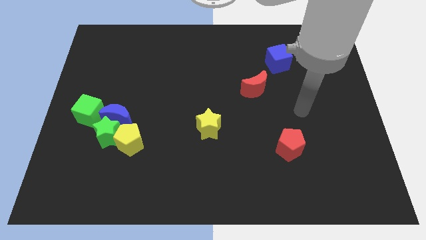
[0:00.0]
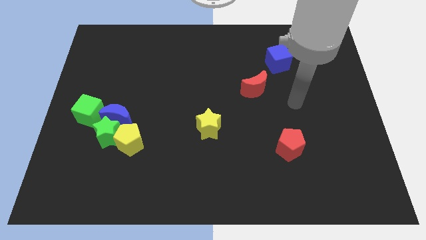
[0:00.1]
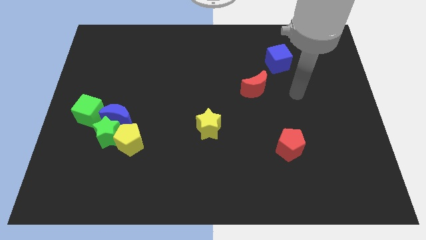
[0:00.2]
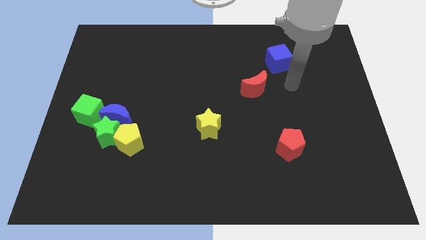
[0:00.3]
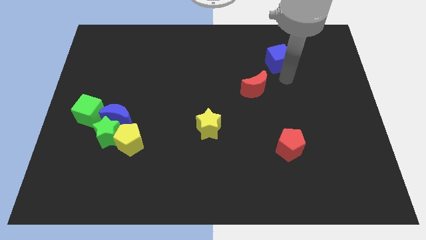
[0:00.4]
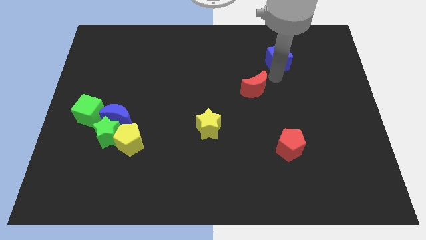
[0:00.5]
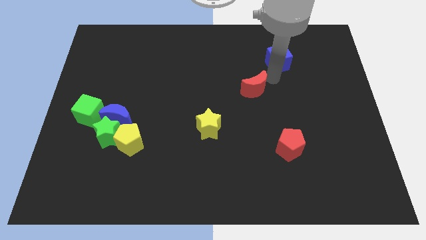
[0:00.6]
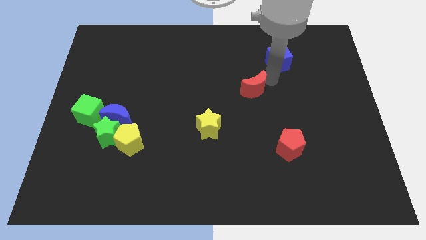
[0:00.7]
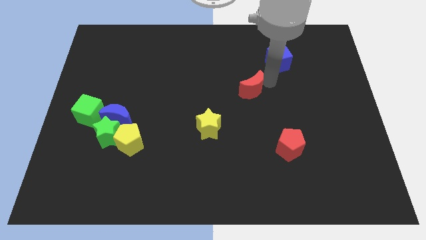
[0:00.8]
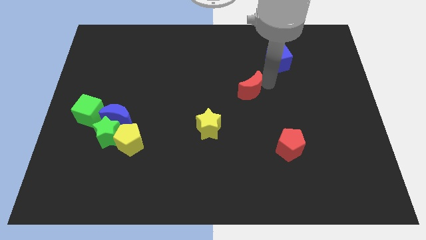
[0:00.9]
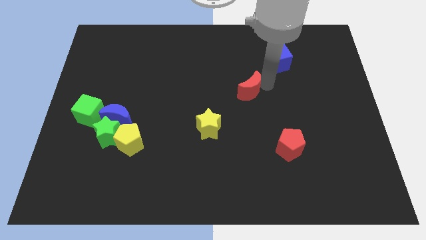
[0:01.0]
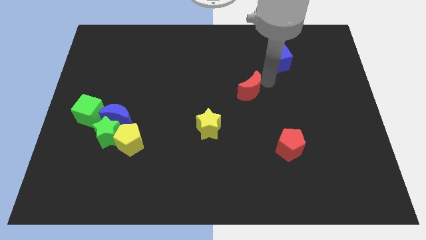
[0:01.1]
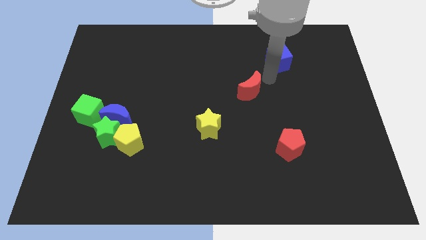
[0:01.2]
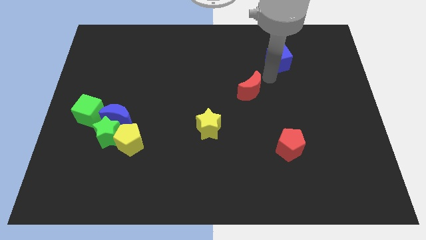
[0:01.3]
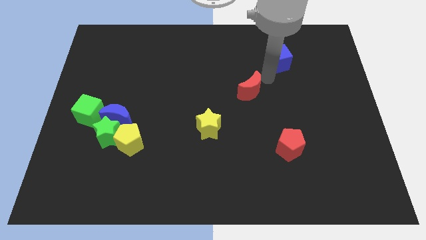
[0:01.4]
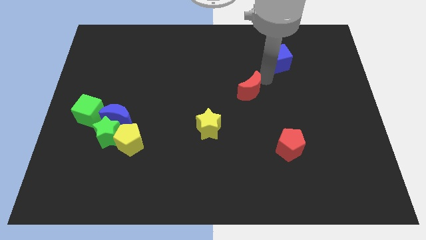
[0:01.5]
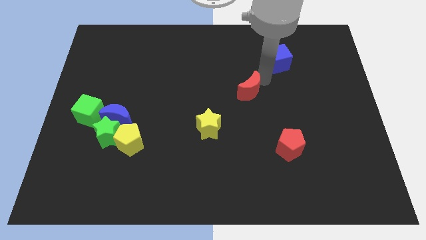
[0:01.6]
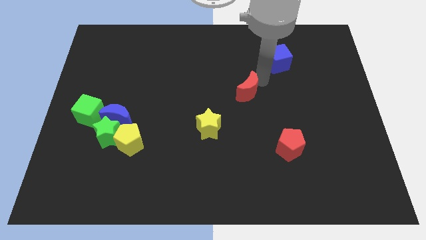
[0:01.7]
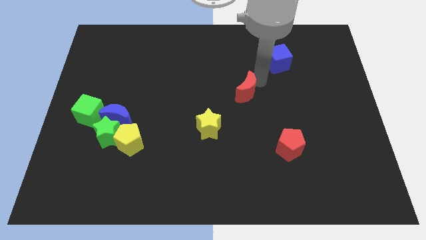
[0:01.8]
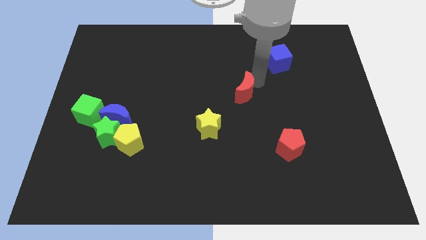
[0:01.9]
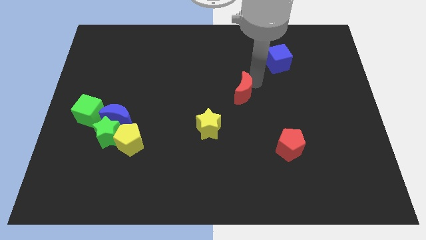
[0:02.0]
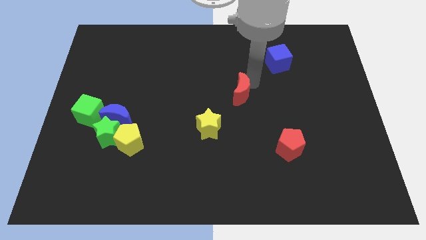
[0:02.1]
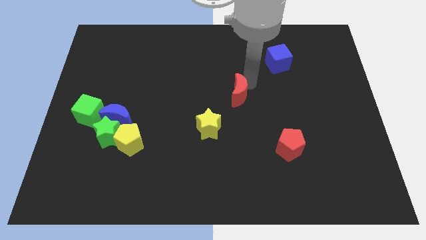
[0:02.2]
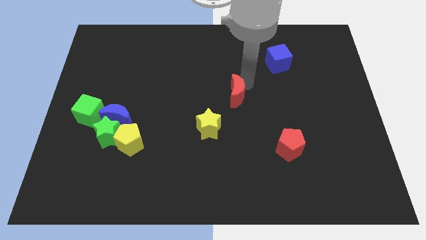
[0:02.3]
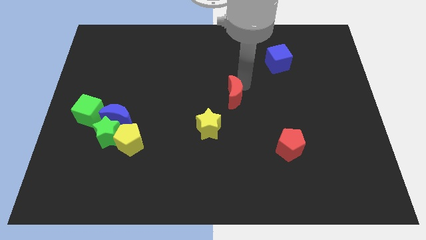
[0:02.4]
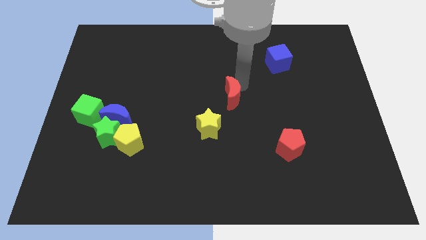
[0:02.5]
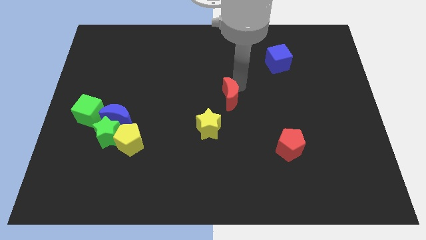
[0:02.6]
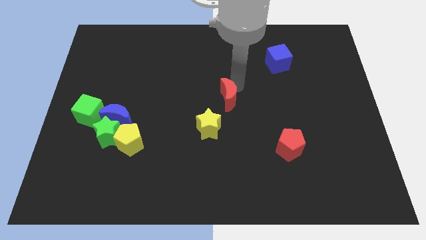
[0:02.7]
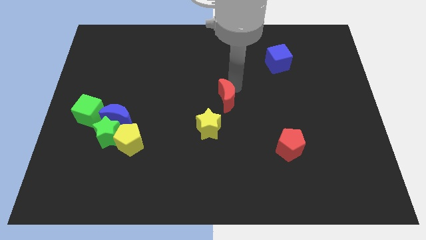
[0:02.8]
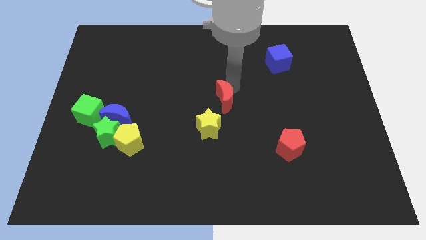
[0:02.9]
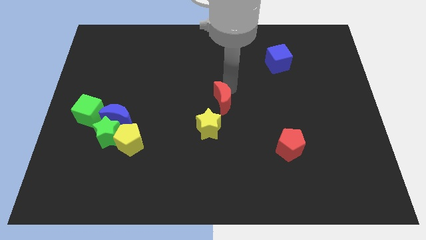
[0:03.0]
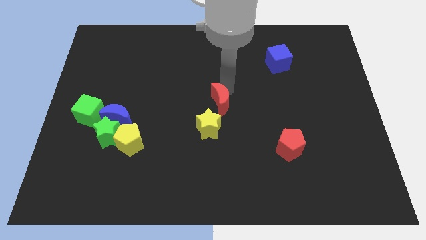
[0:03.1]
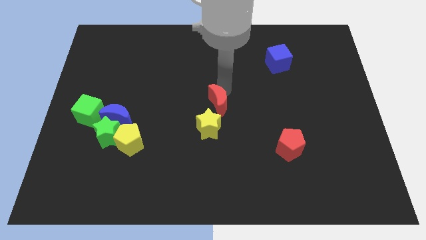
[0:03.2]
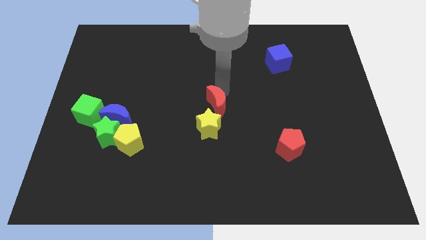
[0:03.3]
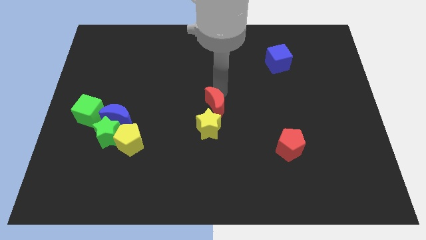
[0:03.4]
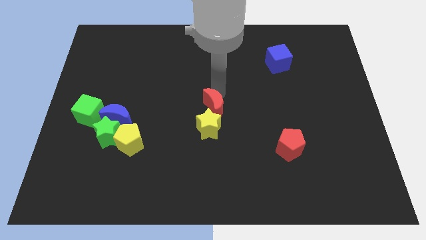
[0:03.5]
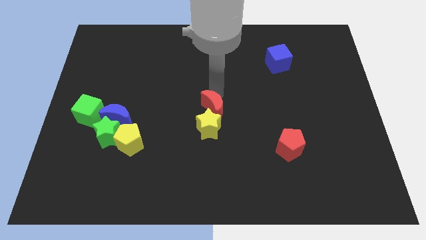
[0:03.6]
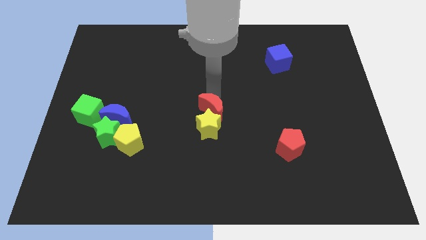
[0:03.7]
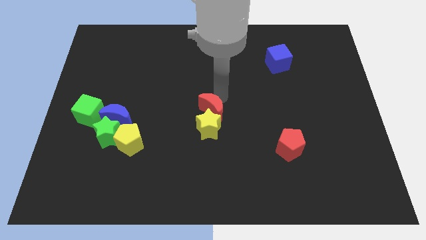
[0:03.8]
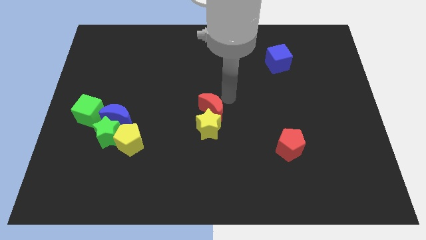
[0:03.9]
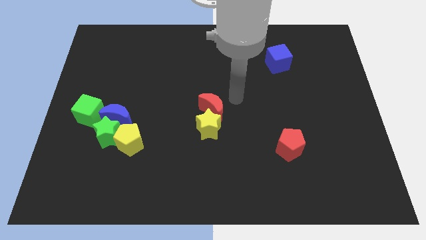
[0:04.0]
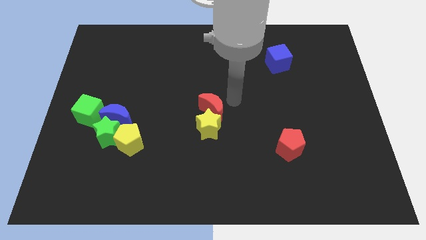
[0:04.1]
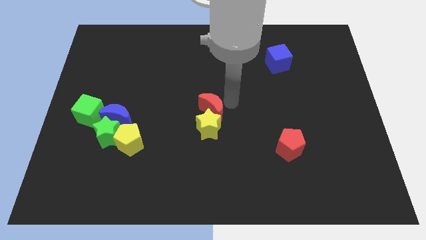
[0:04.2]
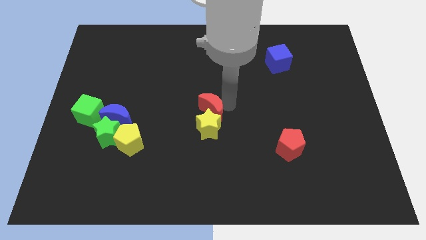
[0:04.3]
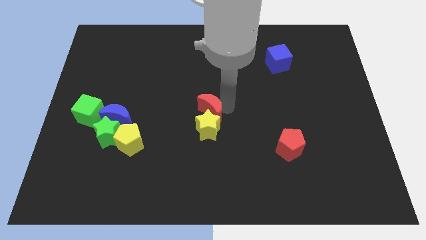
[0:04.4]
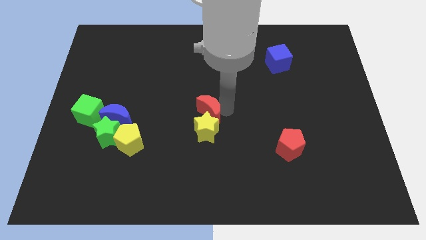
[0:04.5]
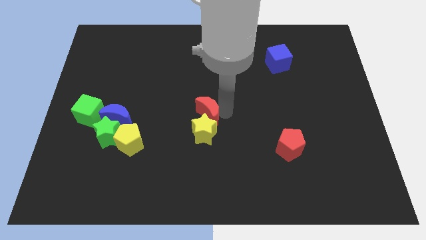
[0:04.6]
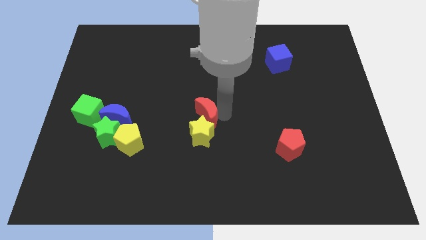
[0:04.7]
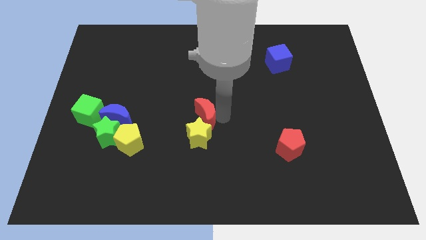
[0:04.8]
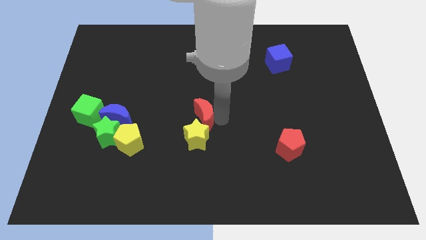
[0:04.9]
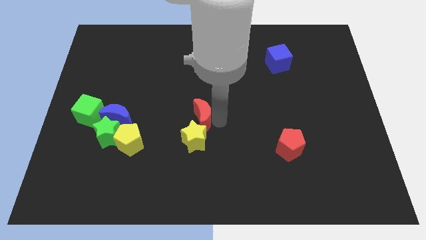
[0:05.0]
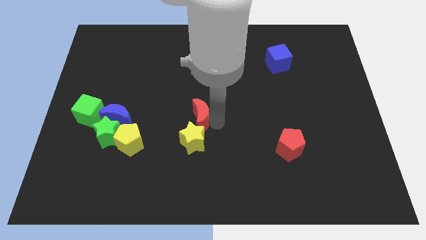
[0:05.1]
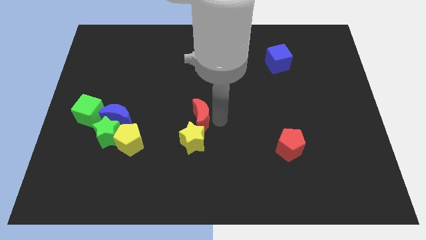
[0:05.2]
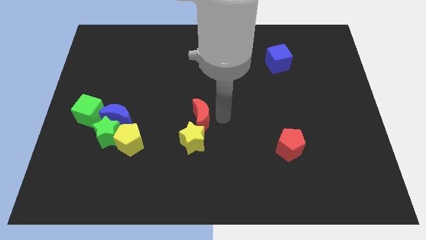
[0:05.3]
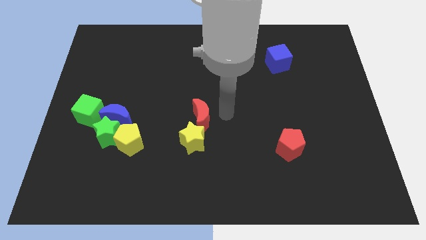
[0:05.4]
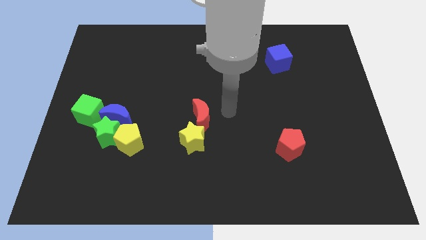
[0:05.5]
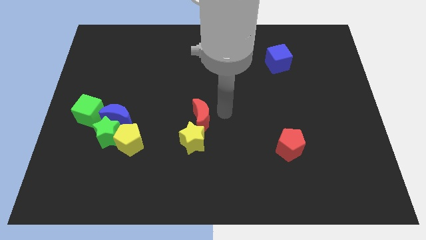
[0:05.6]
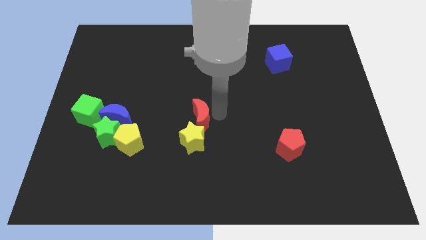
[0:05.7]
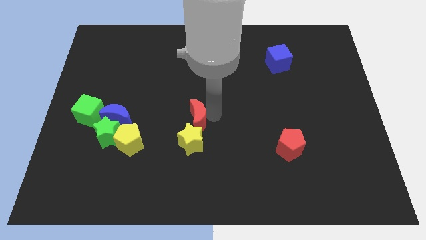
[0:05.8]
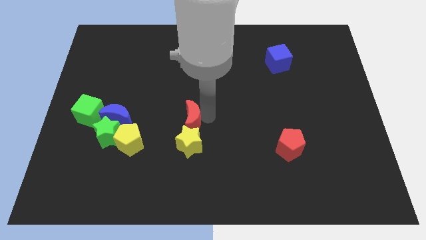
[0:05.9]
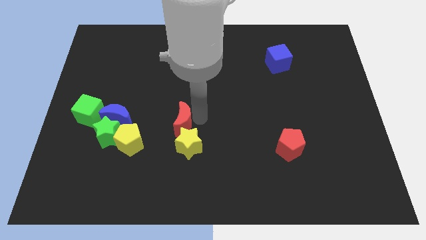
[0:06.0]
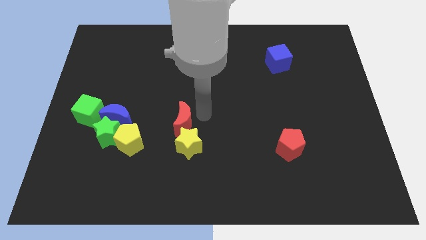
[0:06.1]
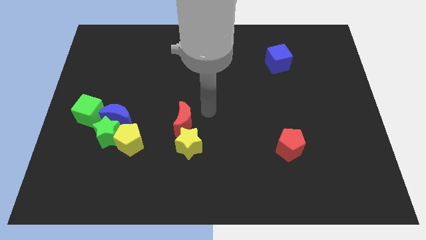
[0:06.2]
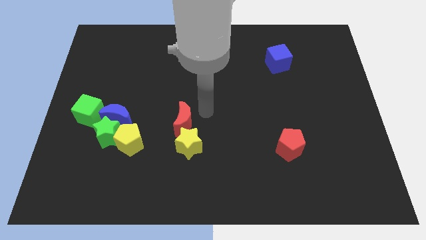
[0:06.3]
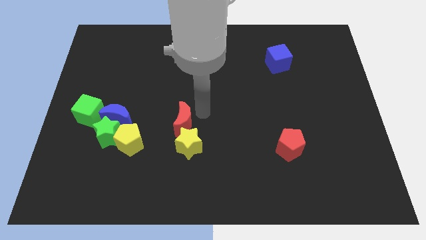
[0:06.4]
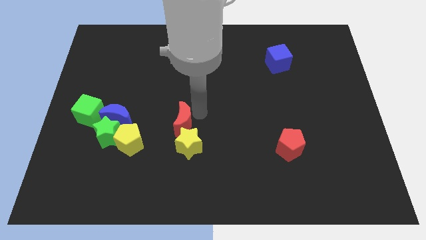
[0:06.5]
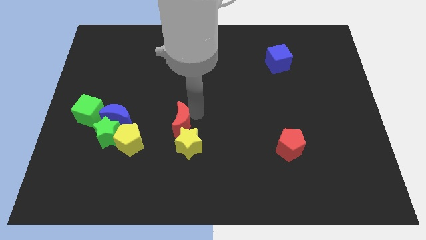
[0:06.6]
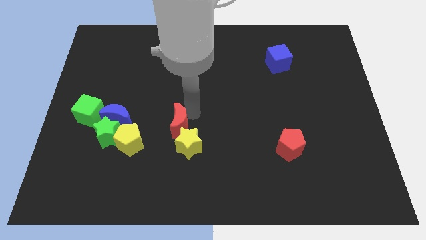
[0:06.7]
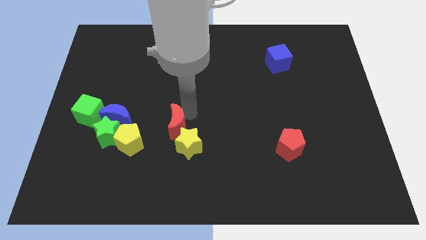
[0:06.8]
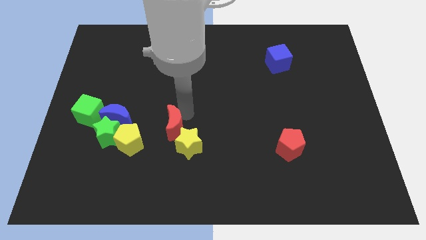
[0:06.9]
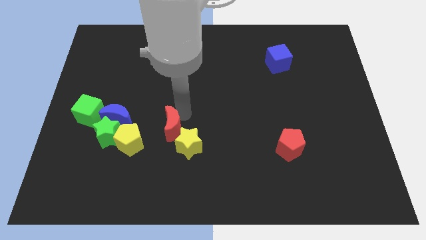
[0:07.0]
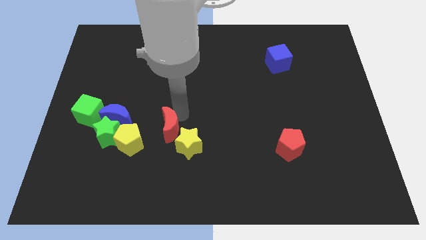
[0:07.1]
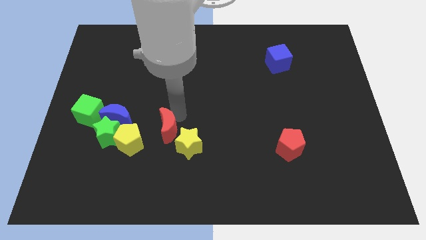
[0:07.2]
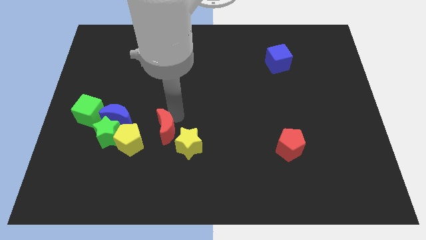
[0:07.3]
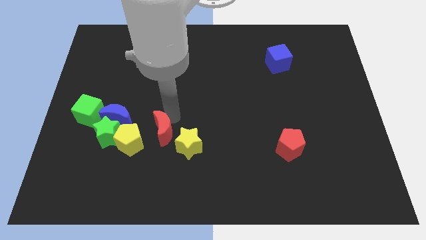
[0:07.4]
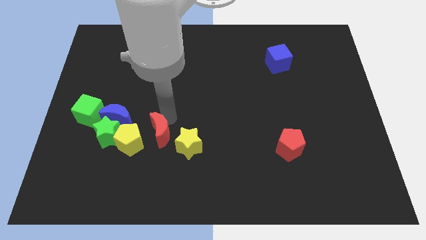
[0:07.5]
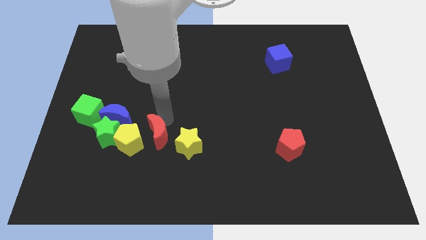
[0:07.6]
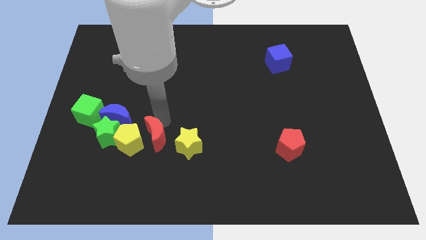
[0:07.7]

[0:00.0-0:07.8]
push the red moon towards the yellow pentagon

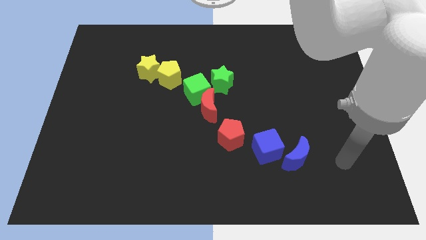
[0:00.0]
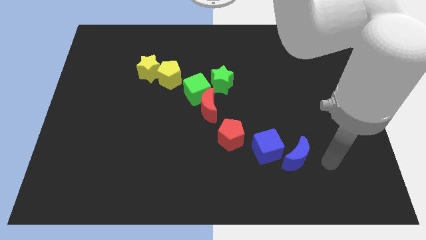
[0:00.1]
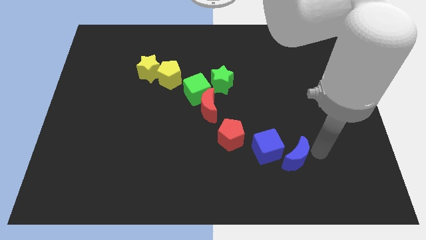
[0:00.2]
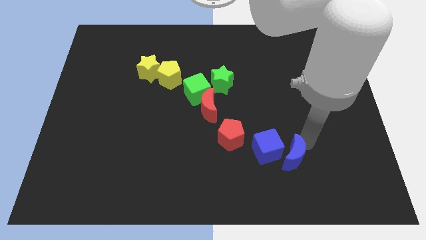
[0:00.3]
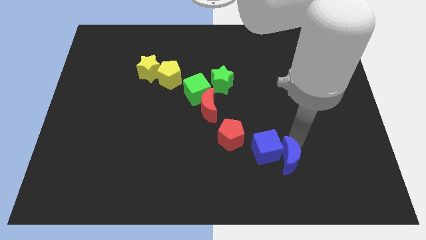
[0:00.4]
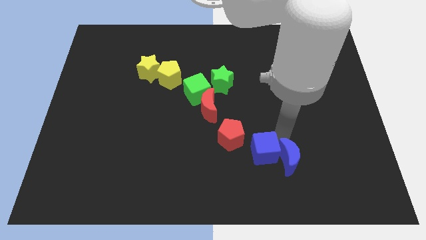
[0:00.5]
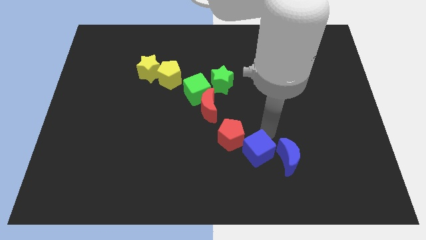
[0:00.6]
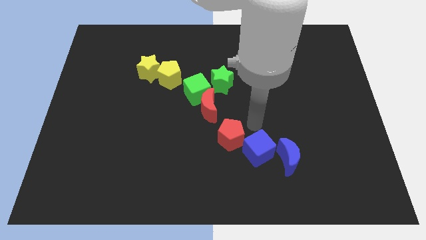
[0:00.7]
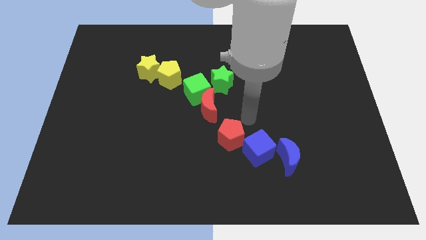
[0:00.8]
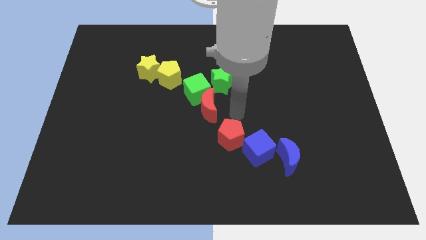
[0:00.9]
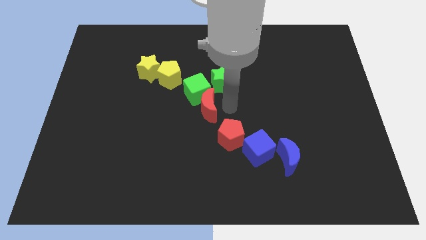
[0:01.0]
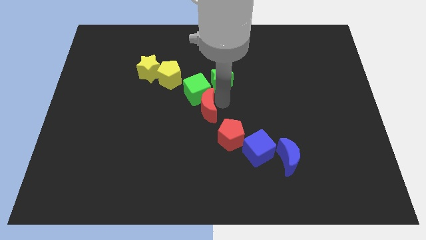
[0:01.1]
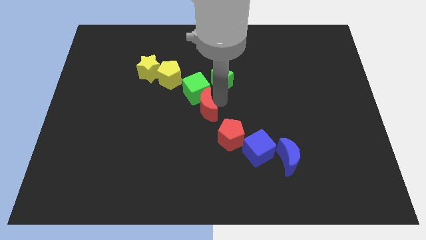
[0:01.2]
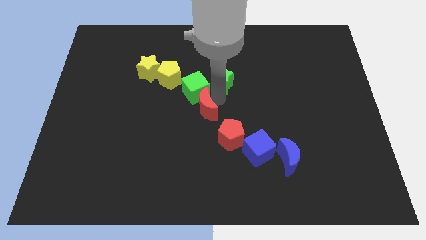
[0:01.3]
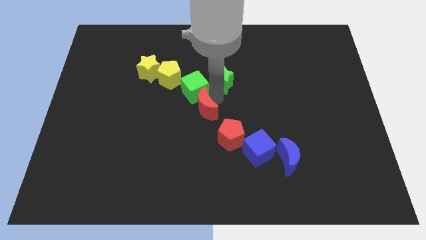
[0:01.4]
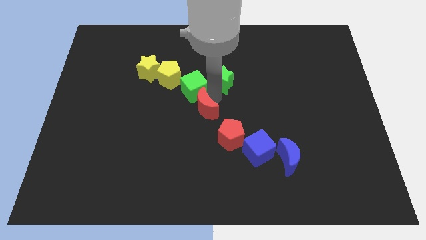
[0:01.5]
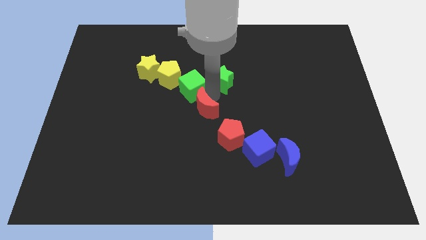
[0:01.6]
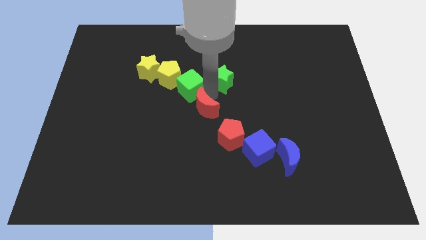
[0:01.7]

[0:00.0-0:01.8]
move the green cube next to the yellow pentagon
